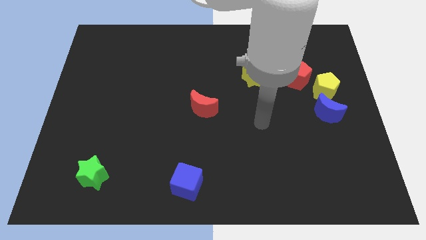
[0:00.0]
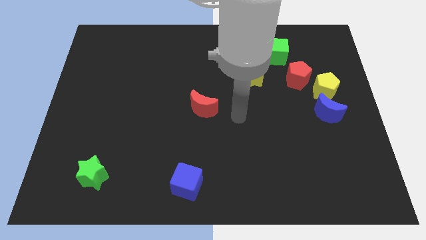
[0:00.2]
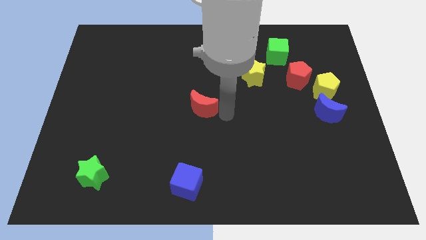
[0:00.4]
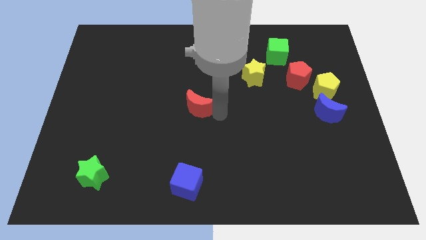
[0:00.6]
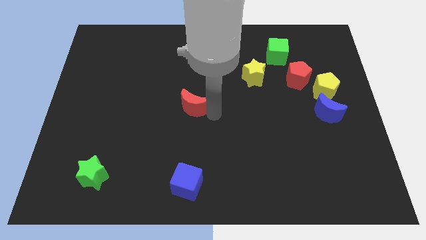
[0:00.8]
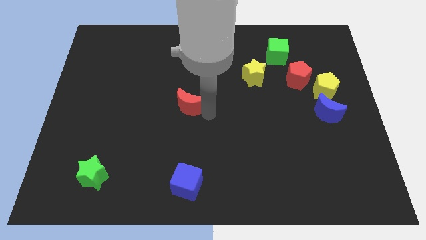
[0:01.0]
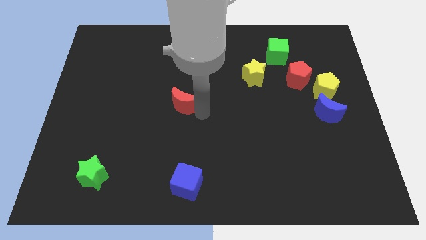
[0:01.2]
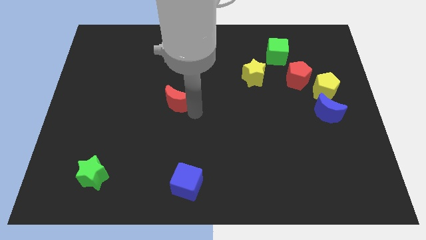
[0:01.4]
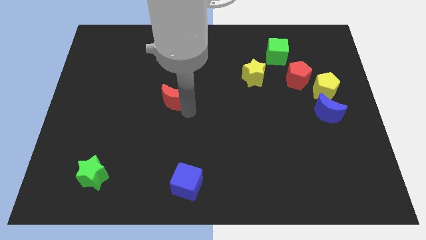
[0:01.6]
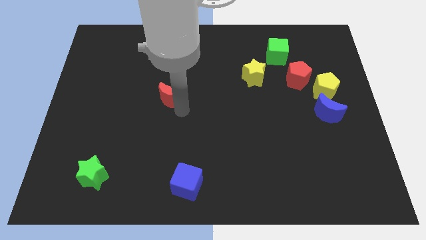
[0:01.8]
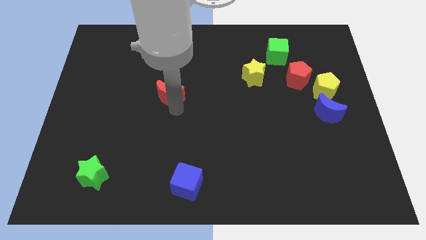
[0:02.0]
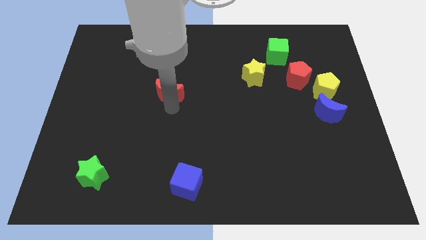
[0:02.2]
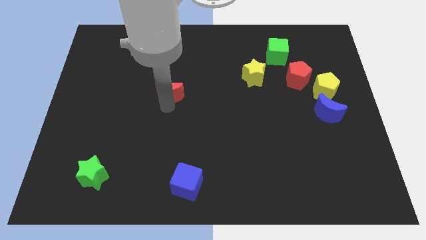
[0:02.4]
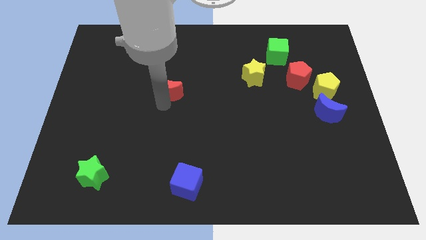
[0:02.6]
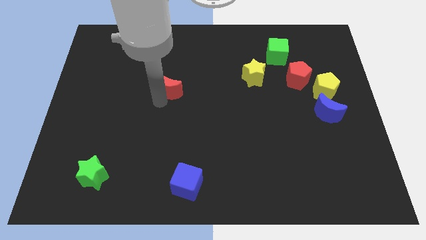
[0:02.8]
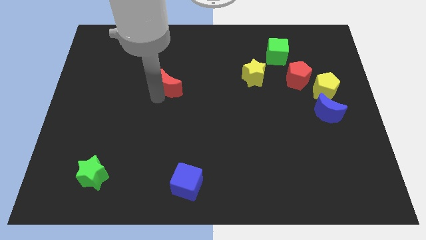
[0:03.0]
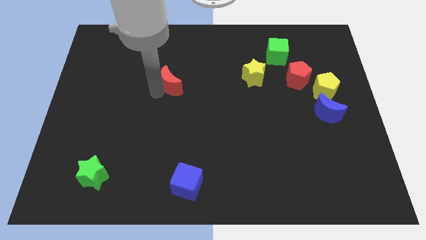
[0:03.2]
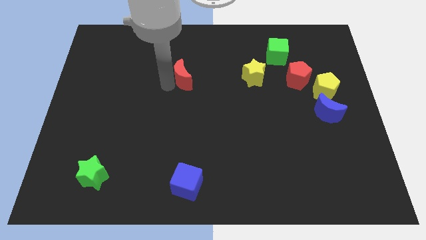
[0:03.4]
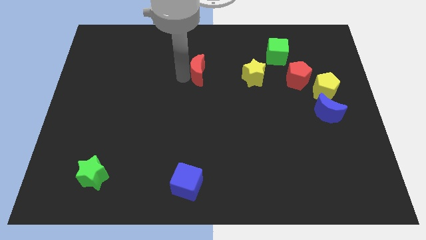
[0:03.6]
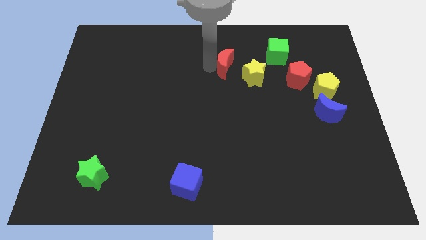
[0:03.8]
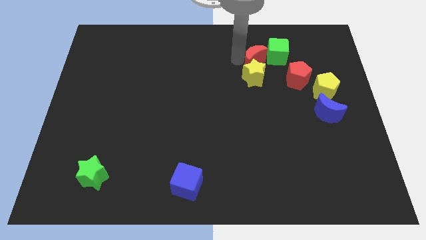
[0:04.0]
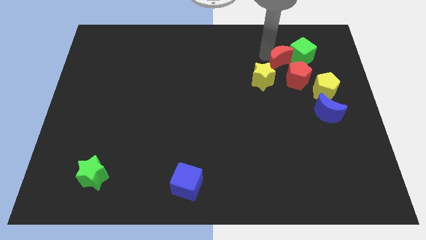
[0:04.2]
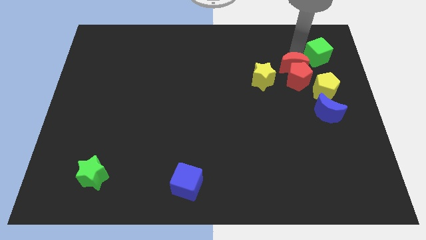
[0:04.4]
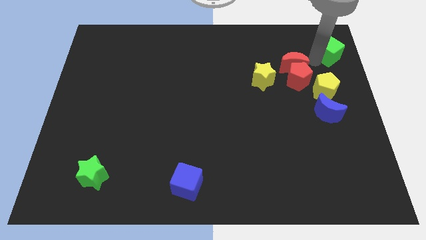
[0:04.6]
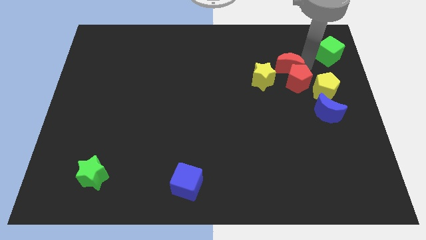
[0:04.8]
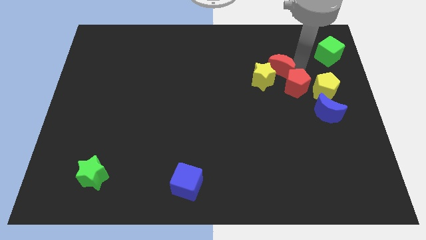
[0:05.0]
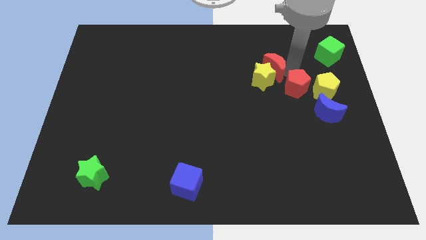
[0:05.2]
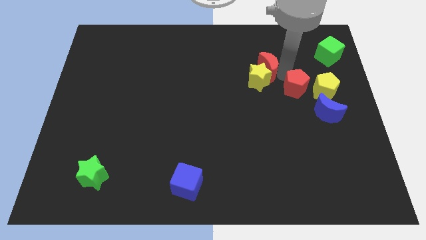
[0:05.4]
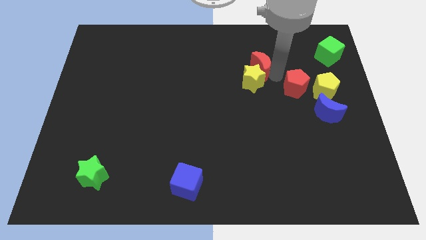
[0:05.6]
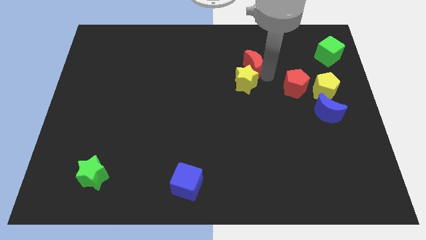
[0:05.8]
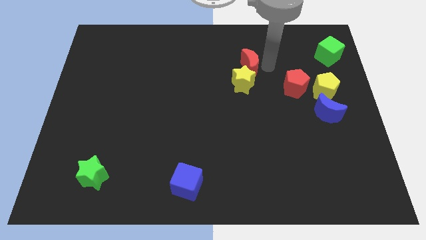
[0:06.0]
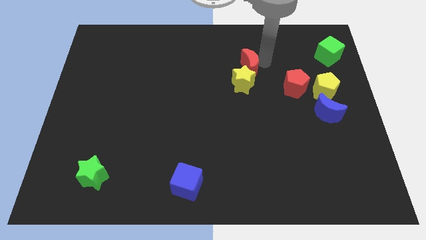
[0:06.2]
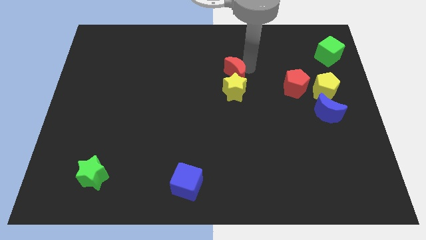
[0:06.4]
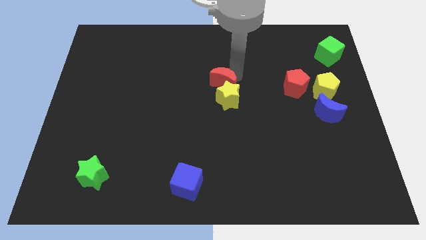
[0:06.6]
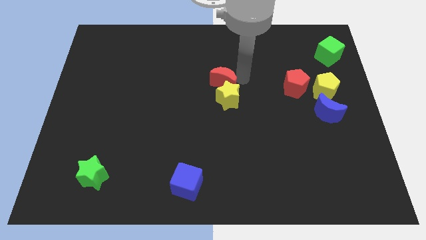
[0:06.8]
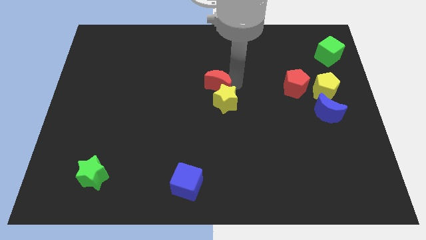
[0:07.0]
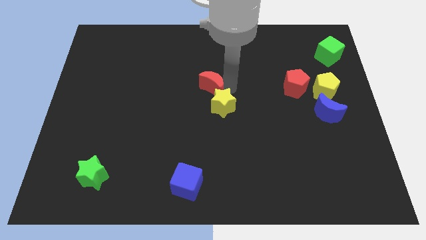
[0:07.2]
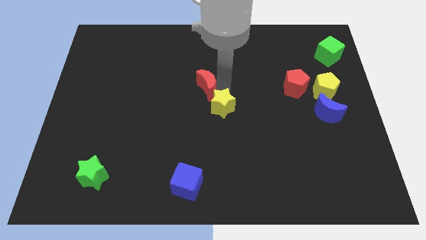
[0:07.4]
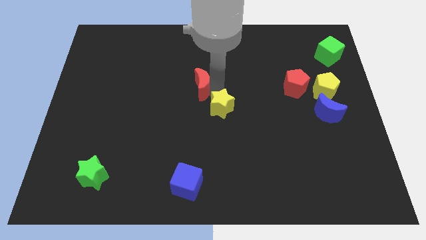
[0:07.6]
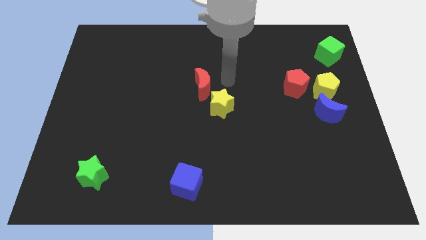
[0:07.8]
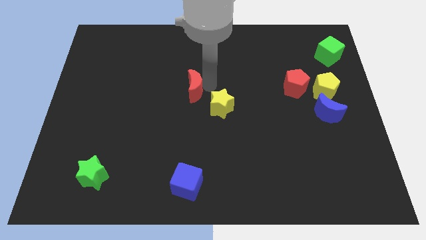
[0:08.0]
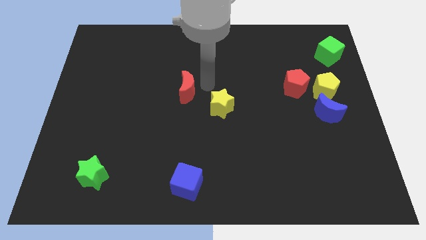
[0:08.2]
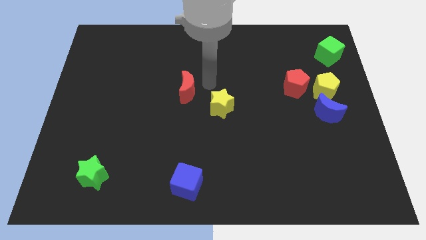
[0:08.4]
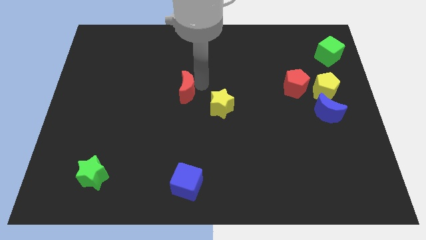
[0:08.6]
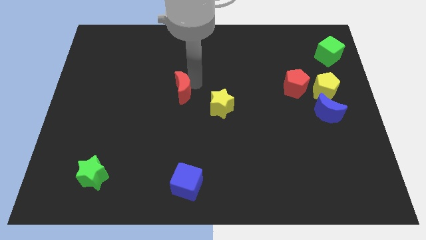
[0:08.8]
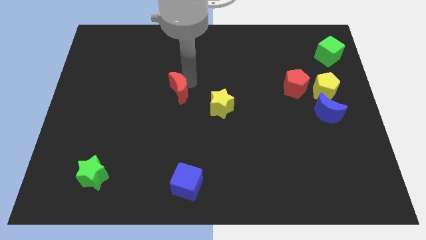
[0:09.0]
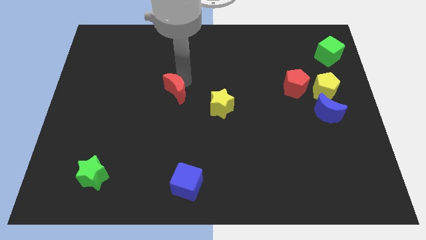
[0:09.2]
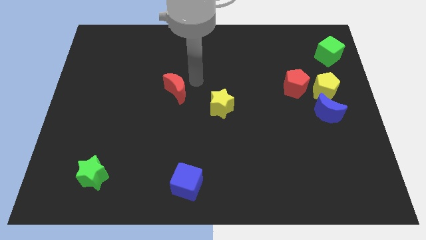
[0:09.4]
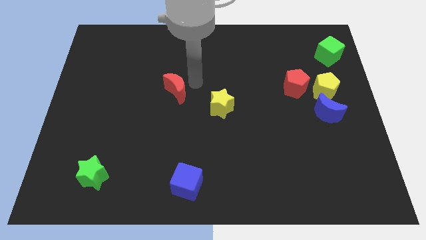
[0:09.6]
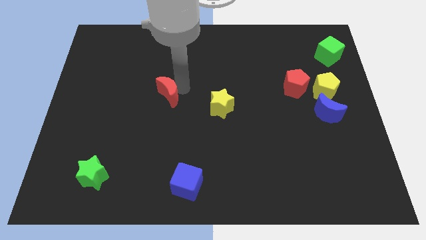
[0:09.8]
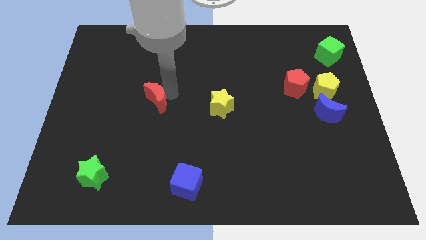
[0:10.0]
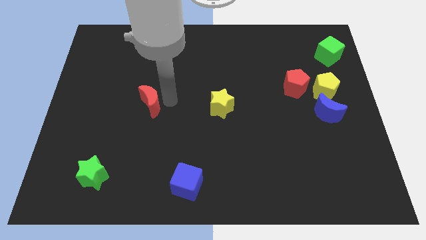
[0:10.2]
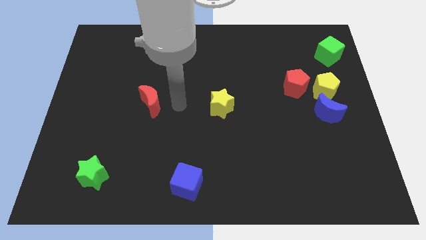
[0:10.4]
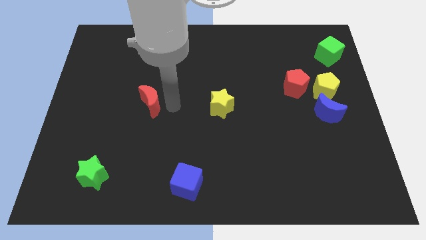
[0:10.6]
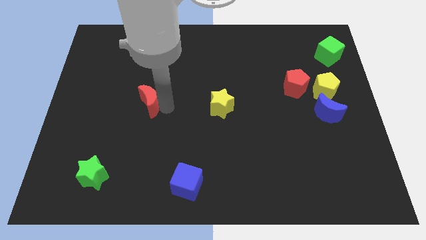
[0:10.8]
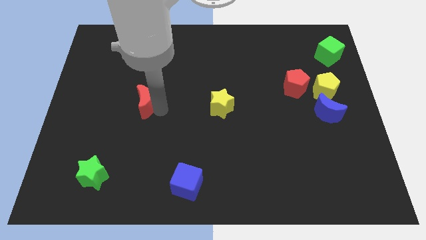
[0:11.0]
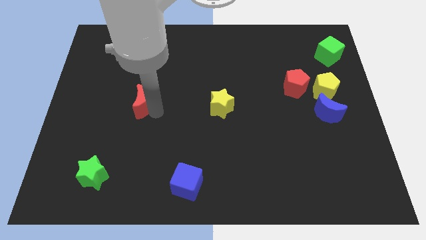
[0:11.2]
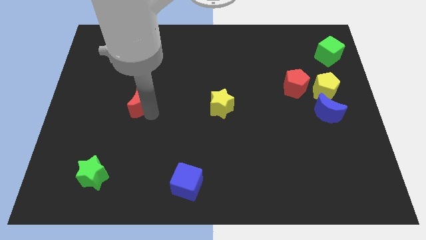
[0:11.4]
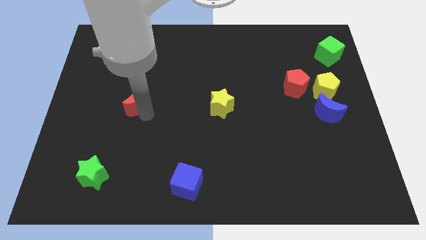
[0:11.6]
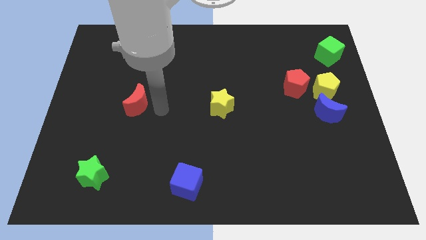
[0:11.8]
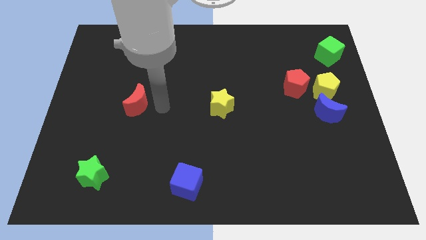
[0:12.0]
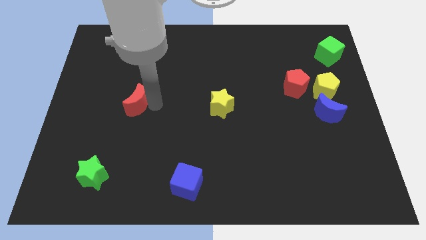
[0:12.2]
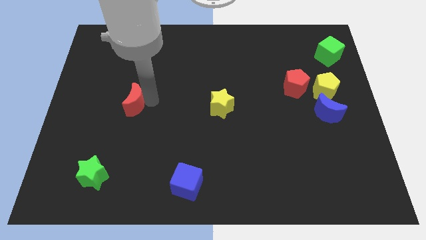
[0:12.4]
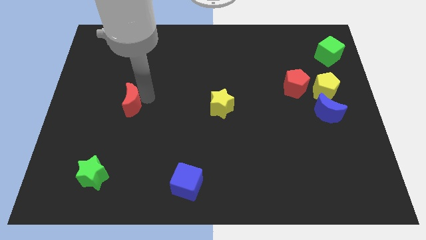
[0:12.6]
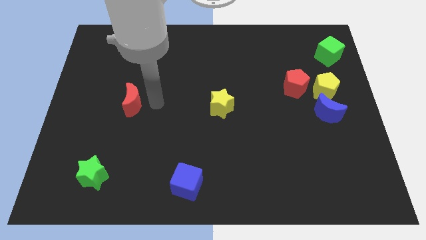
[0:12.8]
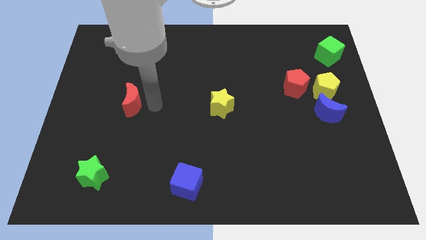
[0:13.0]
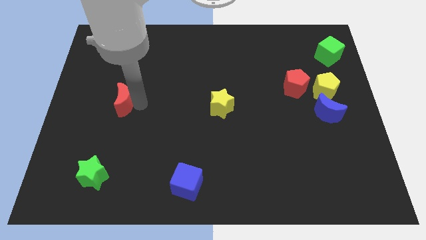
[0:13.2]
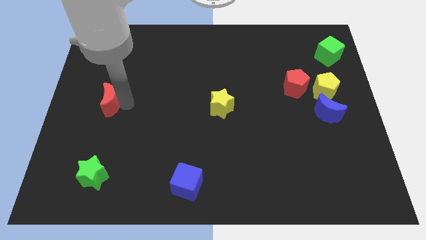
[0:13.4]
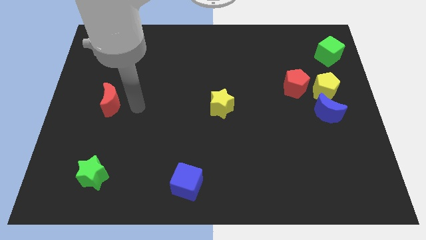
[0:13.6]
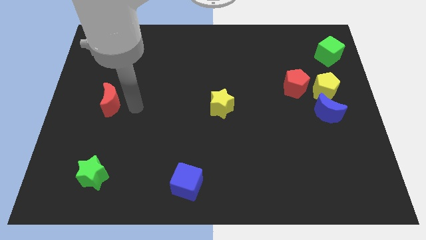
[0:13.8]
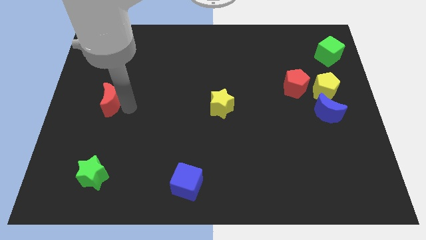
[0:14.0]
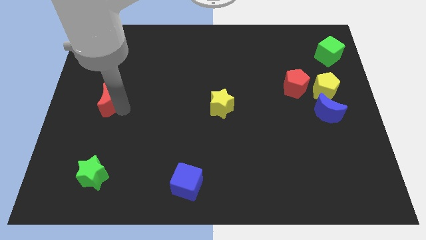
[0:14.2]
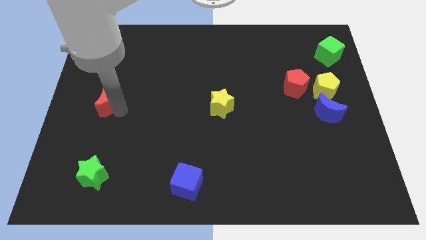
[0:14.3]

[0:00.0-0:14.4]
slide the red moon to the left side
